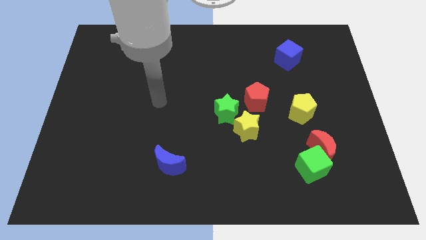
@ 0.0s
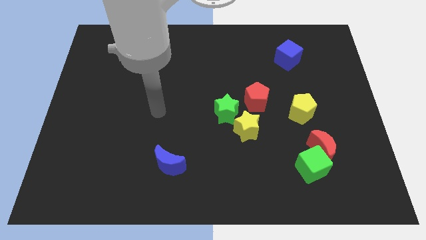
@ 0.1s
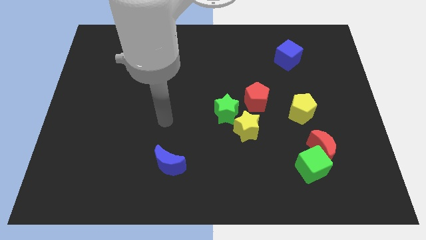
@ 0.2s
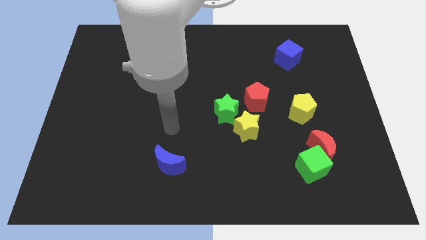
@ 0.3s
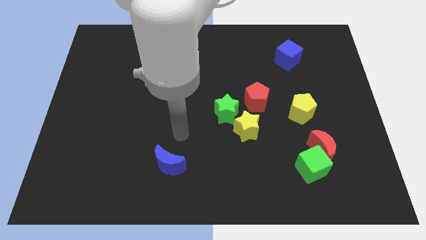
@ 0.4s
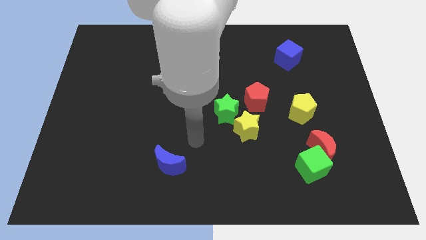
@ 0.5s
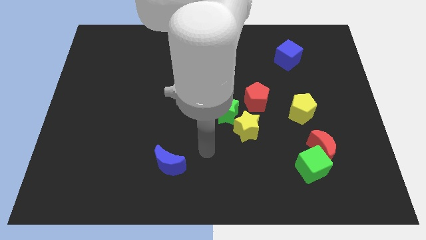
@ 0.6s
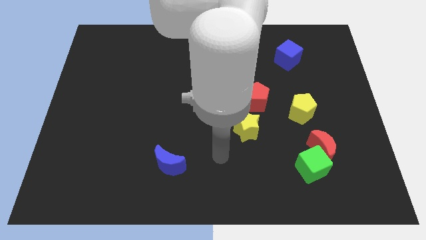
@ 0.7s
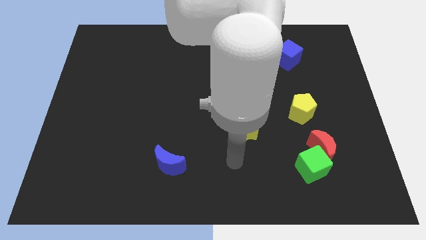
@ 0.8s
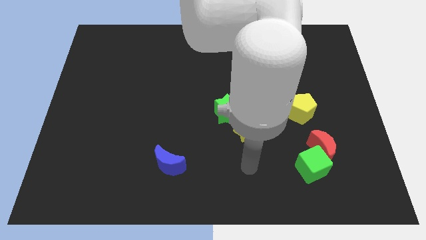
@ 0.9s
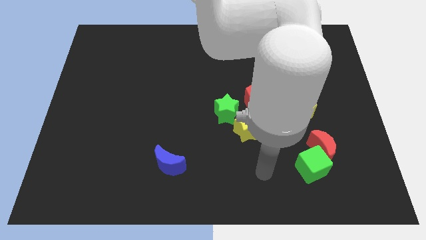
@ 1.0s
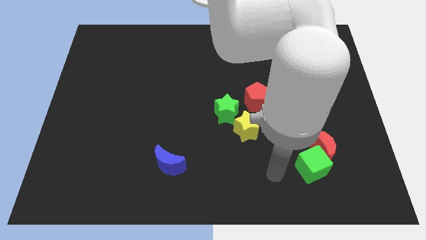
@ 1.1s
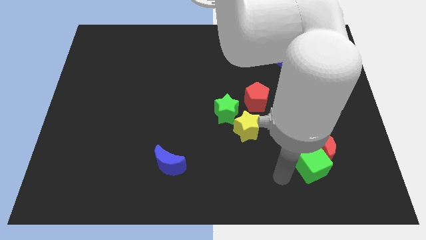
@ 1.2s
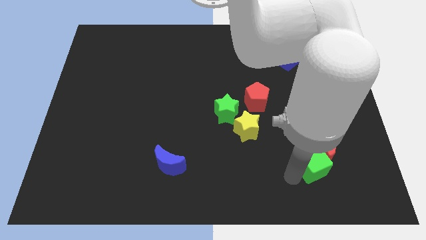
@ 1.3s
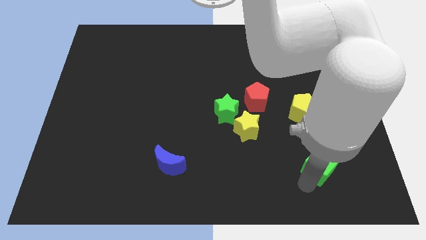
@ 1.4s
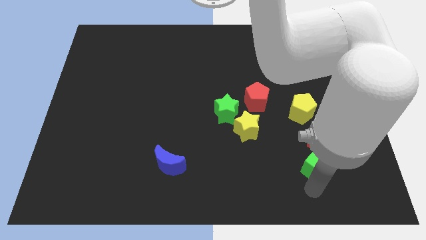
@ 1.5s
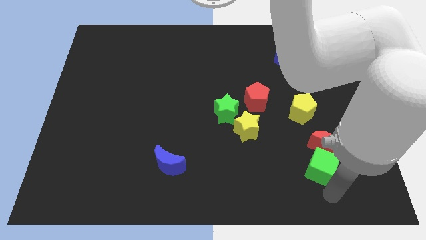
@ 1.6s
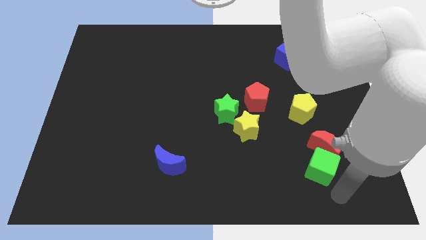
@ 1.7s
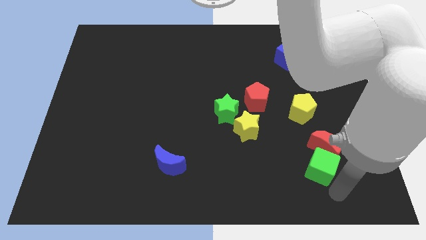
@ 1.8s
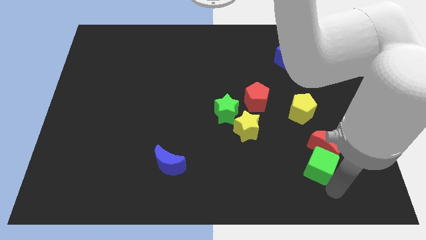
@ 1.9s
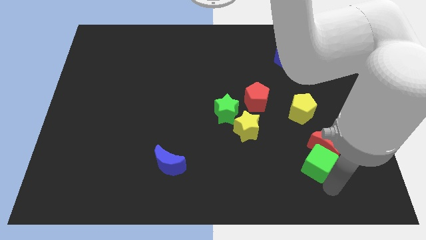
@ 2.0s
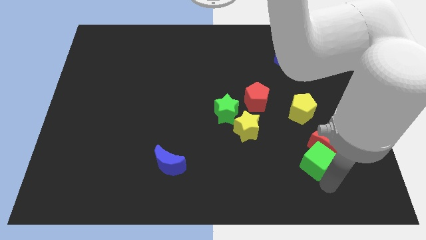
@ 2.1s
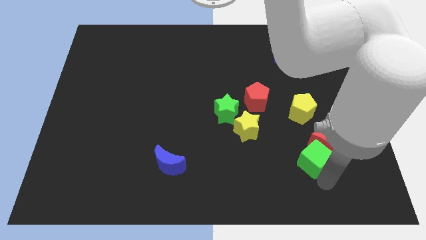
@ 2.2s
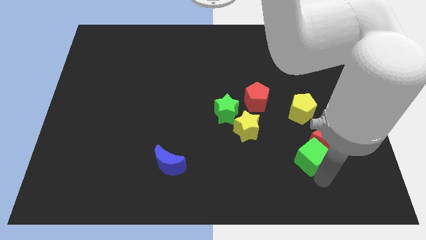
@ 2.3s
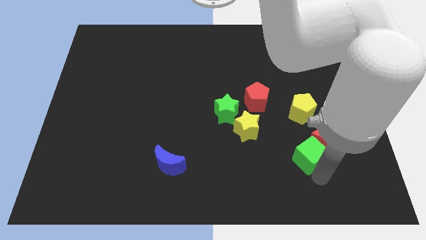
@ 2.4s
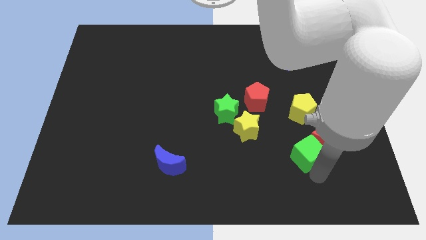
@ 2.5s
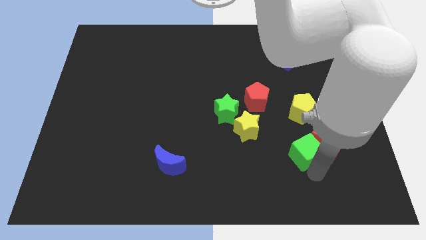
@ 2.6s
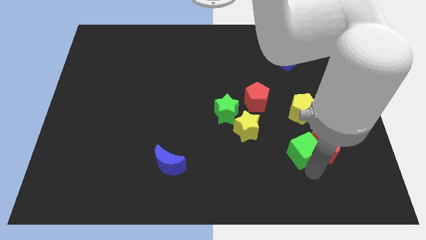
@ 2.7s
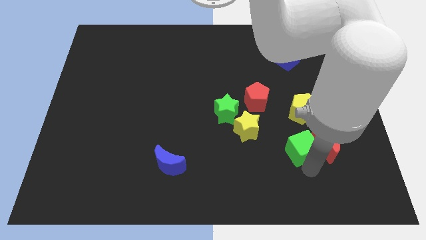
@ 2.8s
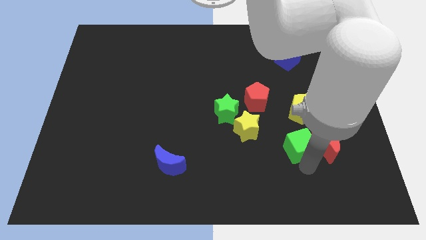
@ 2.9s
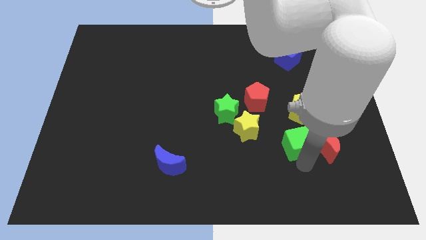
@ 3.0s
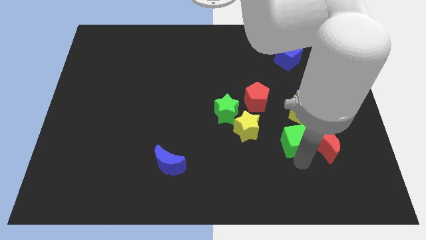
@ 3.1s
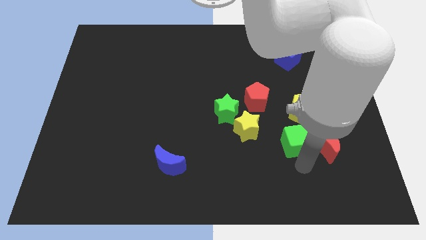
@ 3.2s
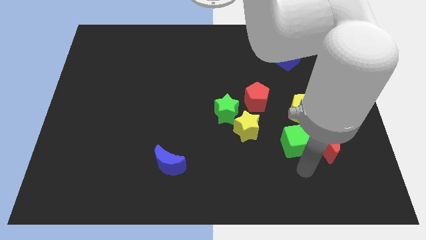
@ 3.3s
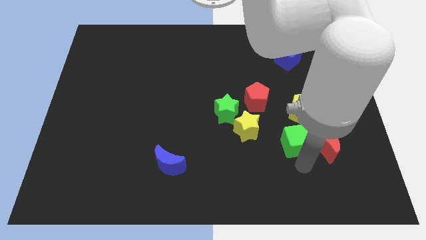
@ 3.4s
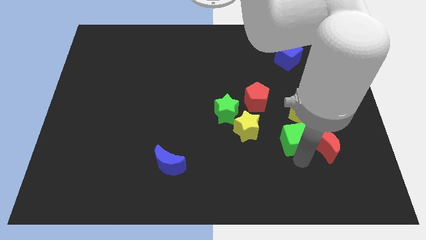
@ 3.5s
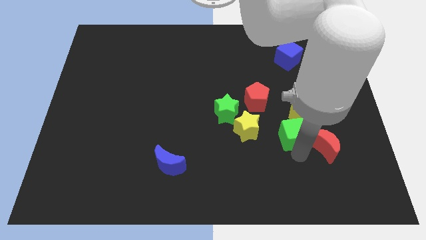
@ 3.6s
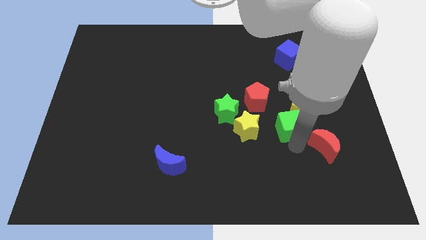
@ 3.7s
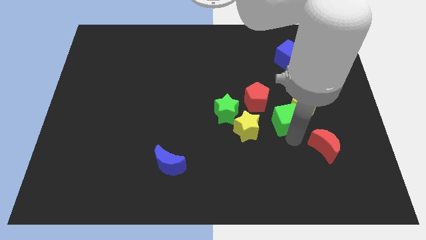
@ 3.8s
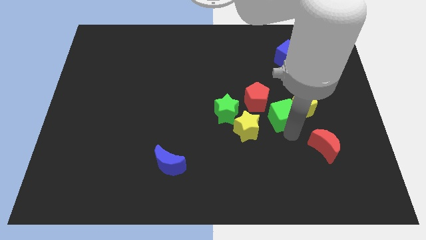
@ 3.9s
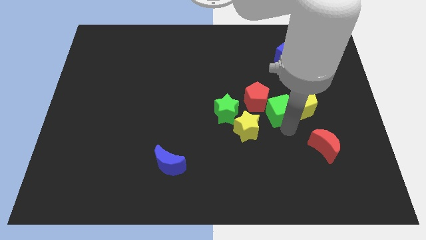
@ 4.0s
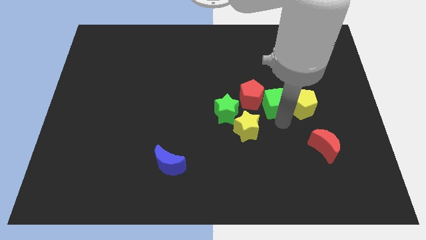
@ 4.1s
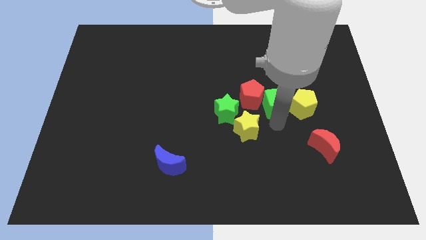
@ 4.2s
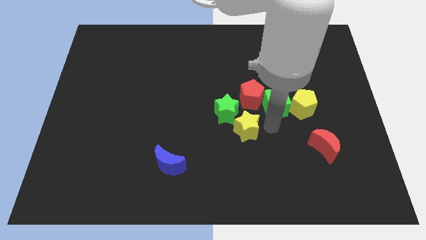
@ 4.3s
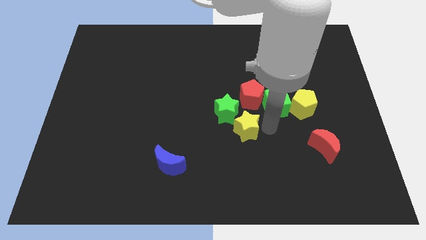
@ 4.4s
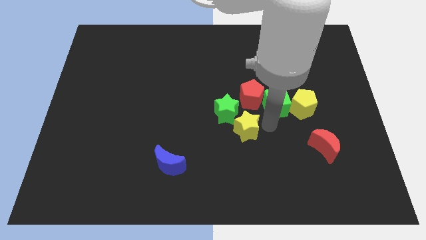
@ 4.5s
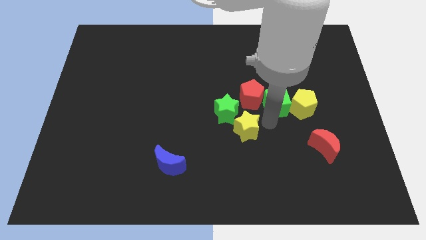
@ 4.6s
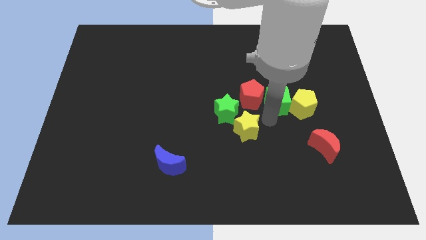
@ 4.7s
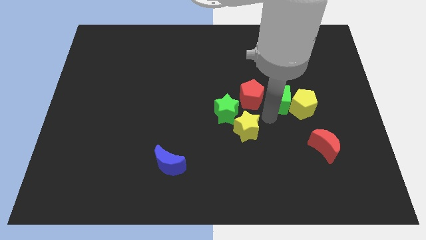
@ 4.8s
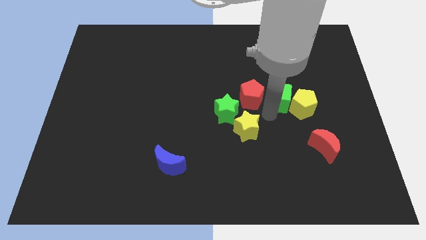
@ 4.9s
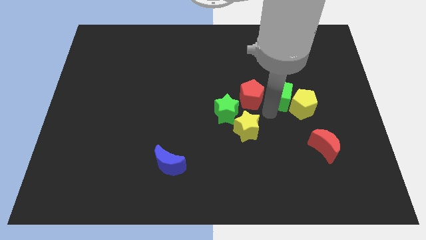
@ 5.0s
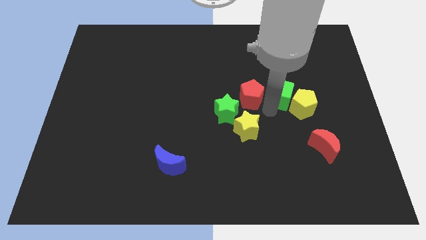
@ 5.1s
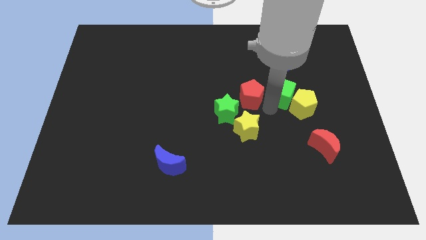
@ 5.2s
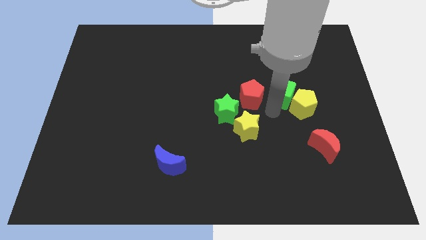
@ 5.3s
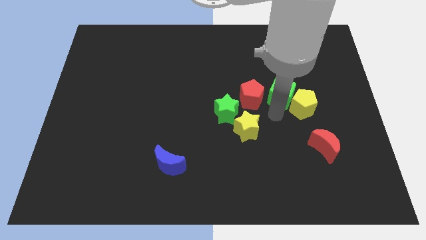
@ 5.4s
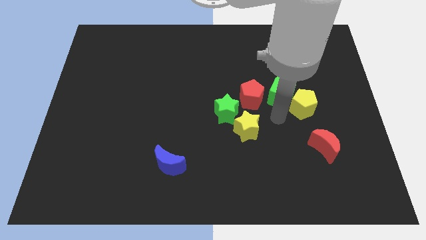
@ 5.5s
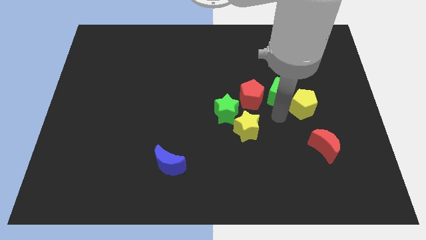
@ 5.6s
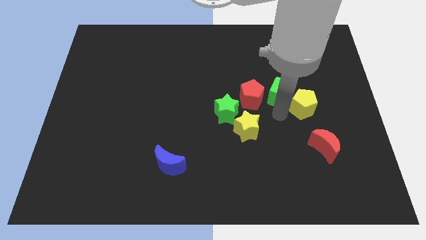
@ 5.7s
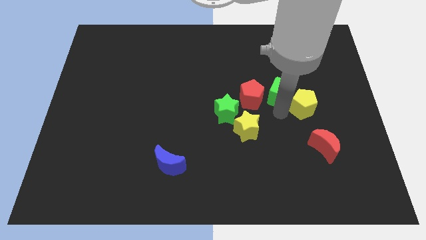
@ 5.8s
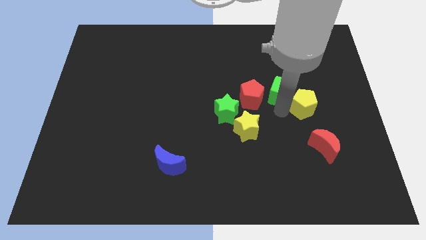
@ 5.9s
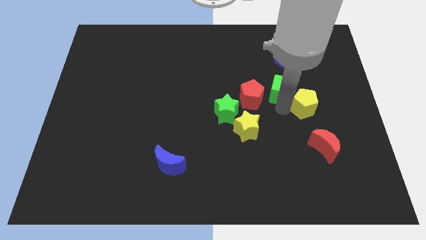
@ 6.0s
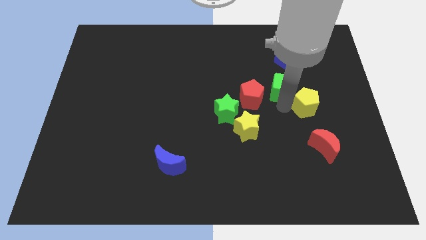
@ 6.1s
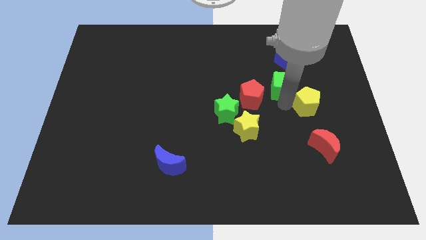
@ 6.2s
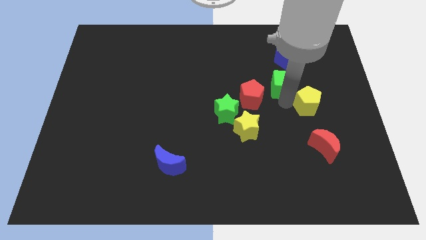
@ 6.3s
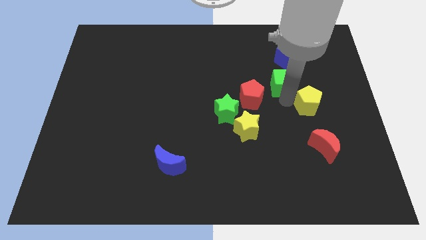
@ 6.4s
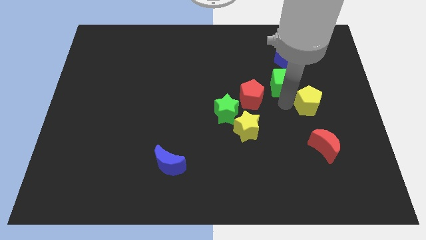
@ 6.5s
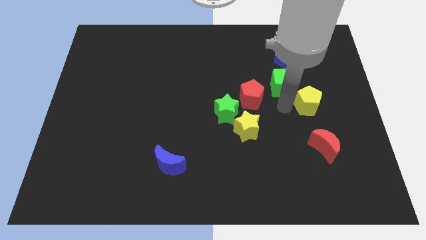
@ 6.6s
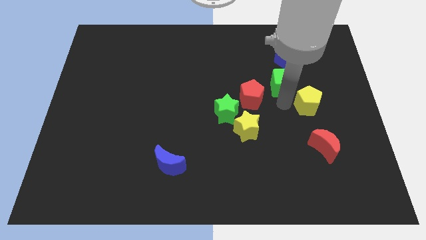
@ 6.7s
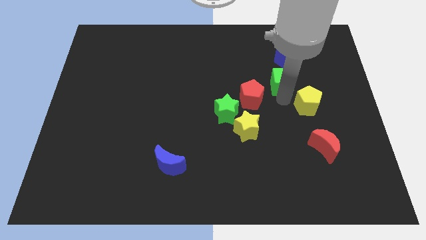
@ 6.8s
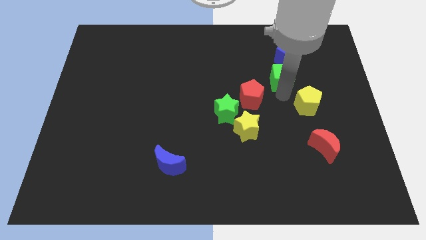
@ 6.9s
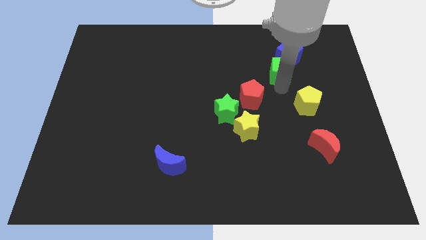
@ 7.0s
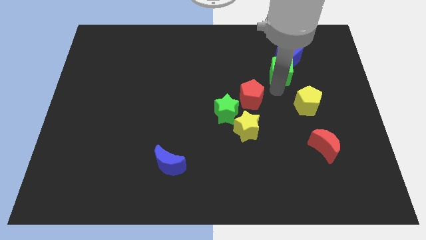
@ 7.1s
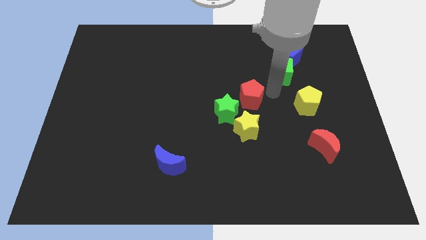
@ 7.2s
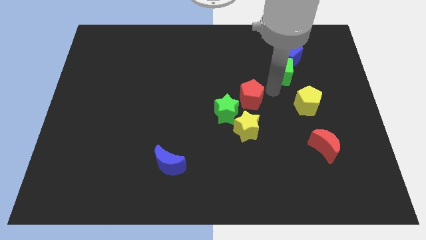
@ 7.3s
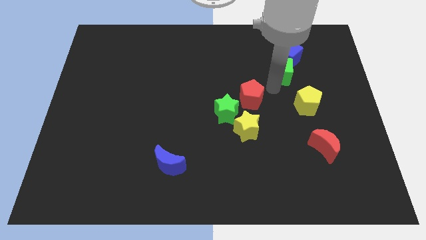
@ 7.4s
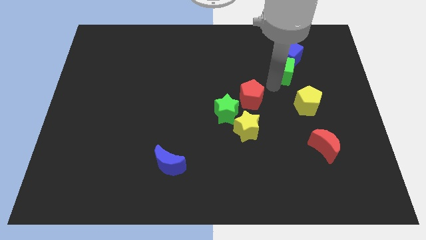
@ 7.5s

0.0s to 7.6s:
push the green cube next to the blue cube
